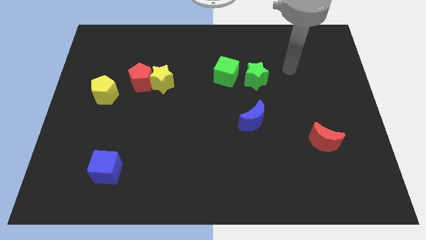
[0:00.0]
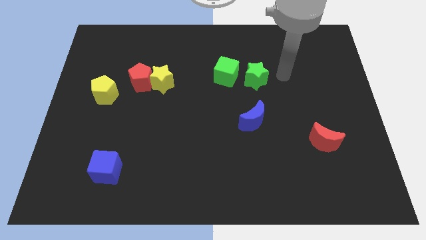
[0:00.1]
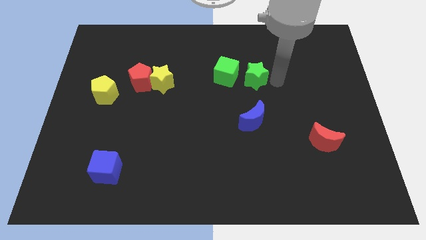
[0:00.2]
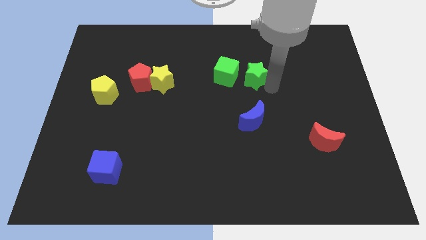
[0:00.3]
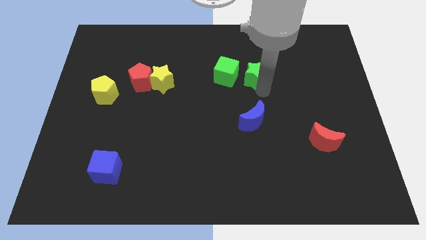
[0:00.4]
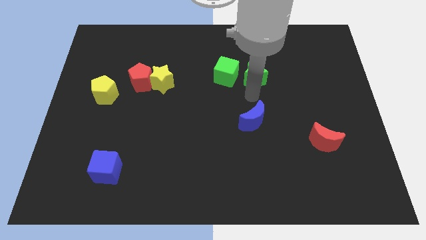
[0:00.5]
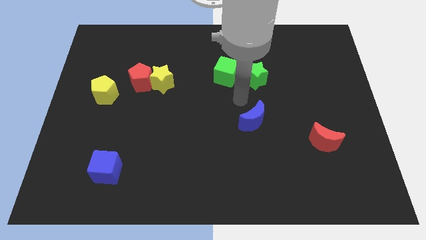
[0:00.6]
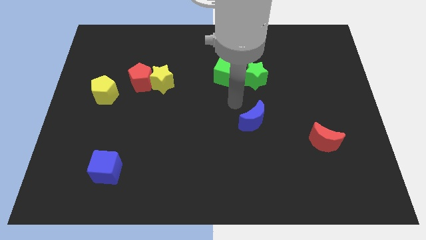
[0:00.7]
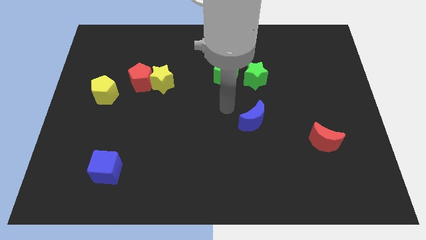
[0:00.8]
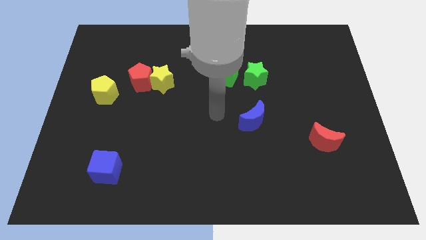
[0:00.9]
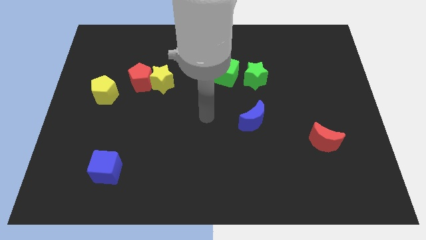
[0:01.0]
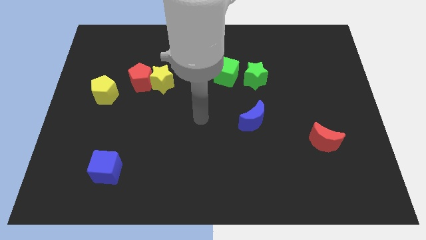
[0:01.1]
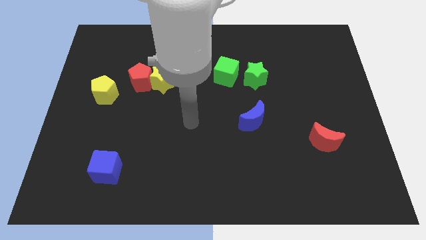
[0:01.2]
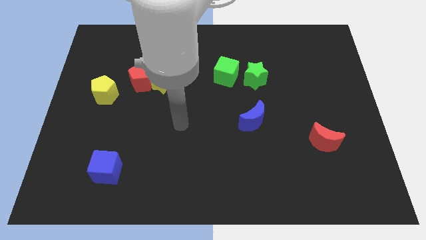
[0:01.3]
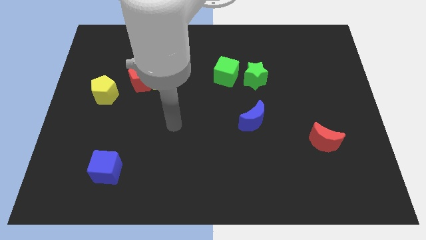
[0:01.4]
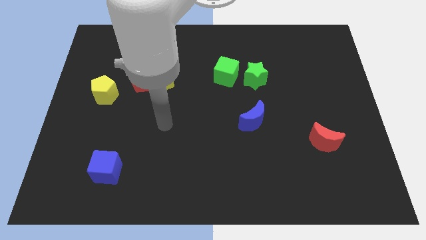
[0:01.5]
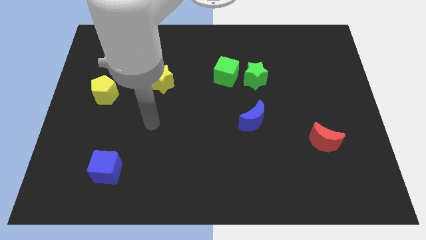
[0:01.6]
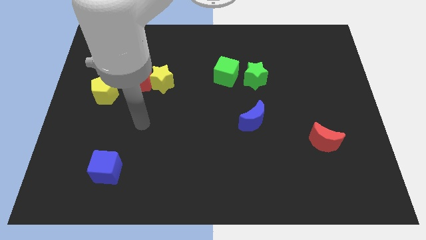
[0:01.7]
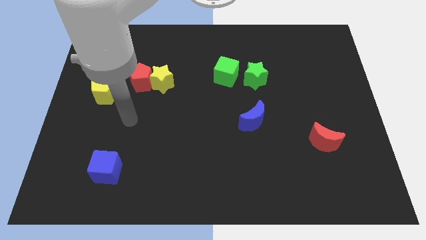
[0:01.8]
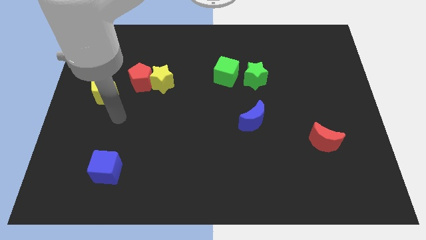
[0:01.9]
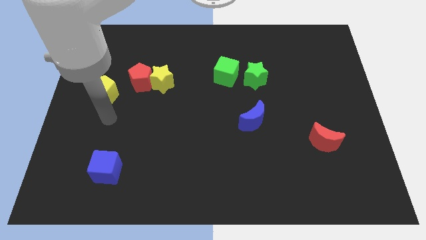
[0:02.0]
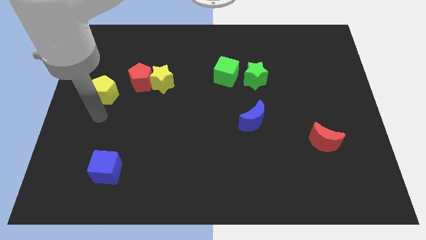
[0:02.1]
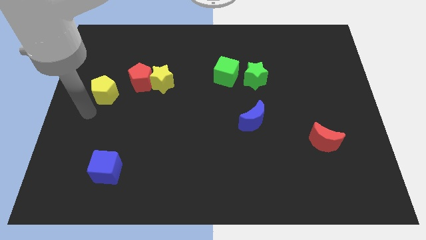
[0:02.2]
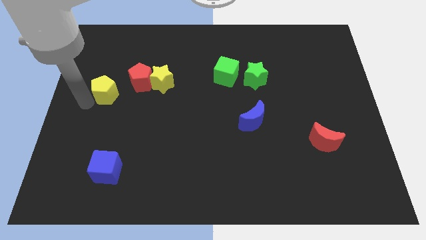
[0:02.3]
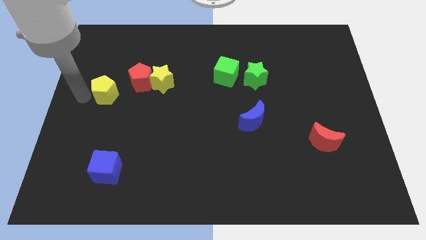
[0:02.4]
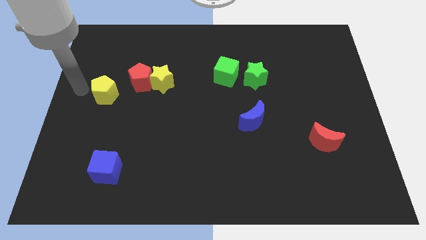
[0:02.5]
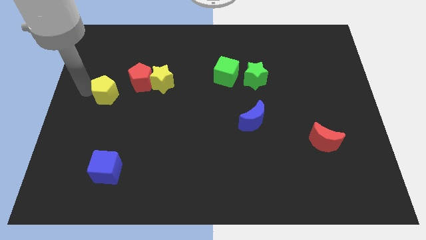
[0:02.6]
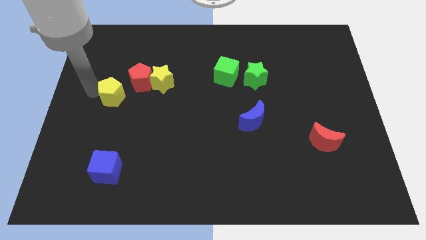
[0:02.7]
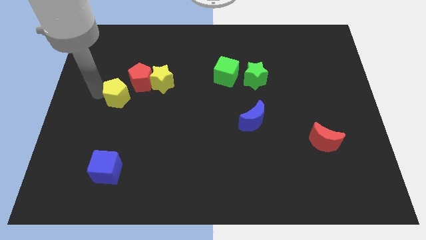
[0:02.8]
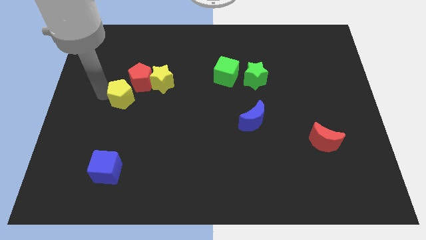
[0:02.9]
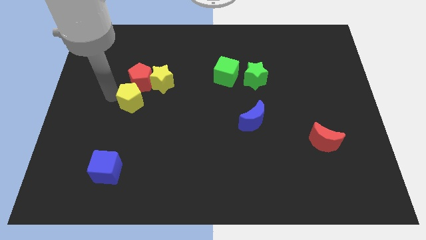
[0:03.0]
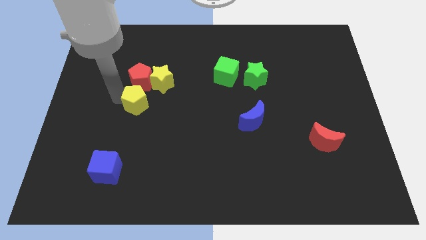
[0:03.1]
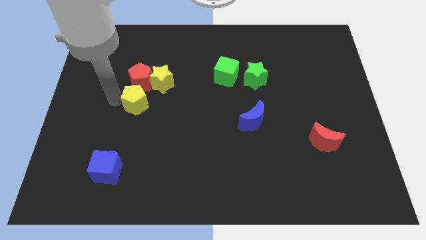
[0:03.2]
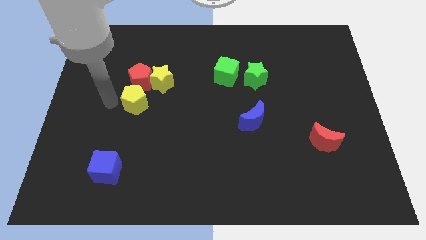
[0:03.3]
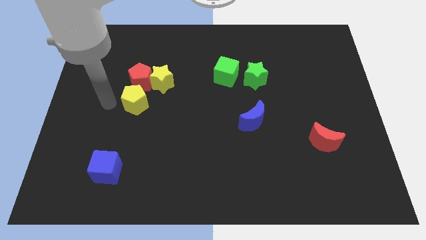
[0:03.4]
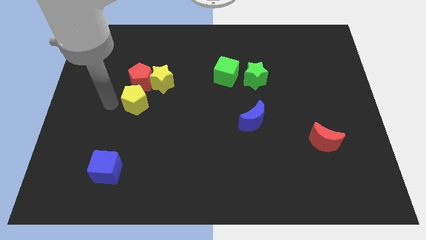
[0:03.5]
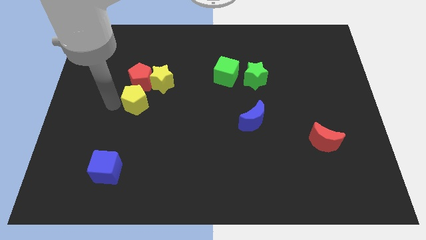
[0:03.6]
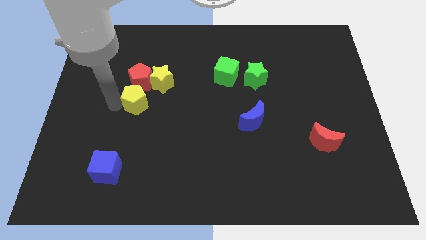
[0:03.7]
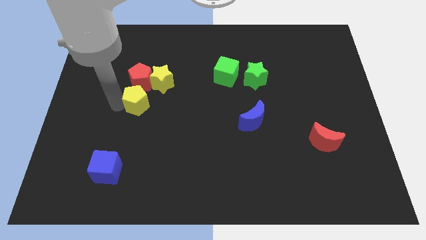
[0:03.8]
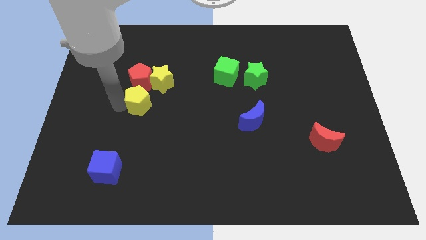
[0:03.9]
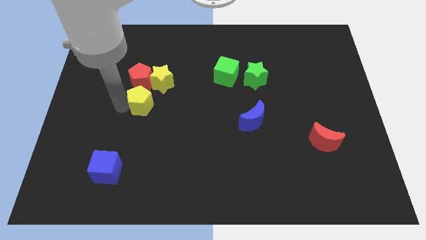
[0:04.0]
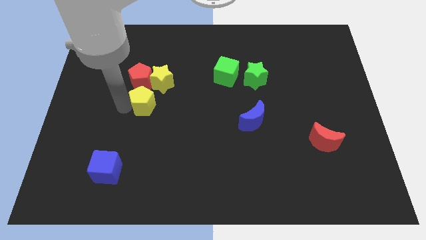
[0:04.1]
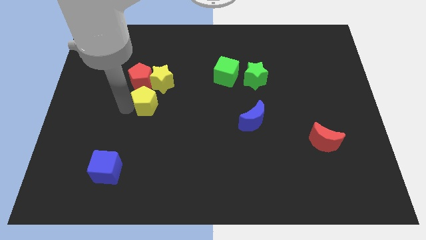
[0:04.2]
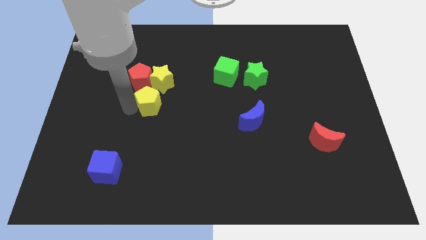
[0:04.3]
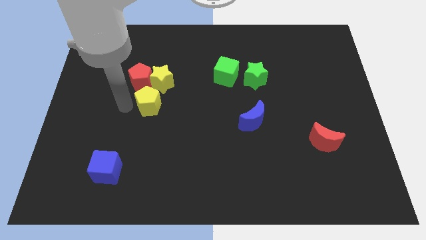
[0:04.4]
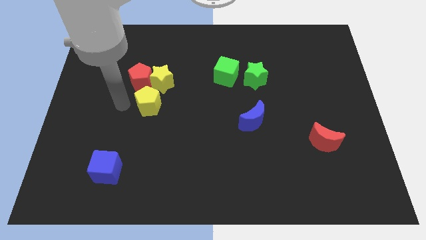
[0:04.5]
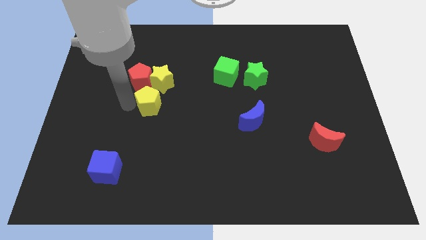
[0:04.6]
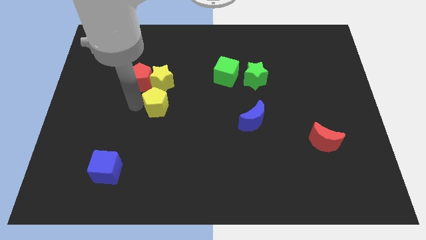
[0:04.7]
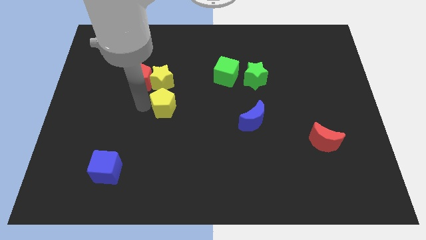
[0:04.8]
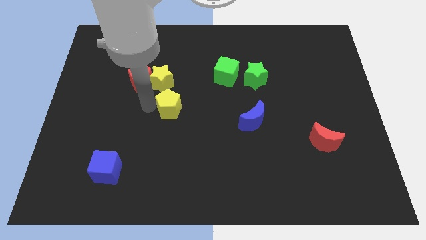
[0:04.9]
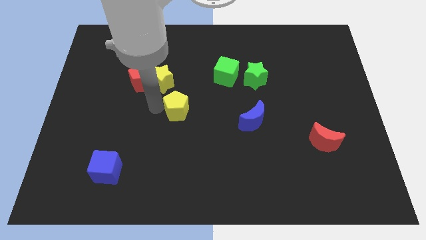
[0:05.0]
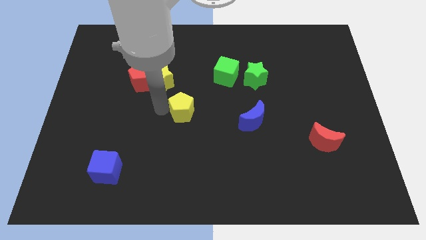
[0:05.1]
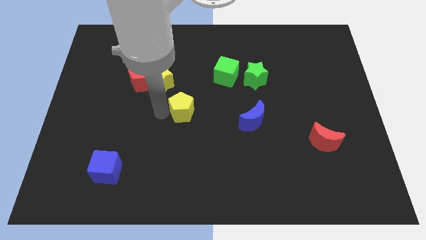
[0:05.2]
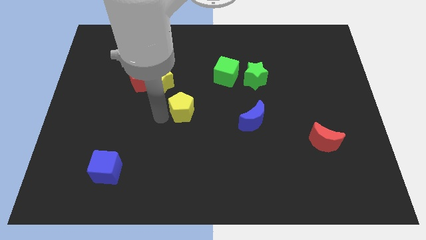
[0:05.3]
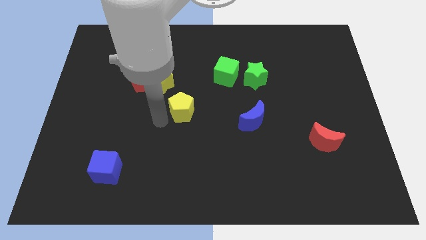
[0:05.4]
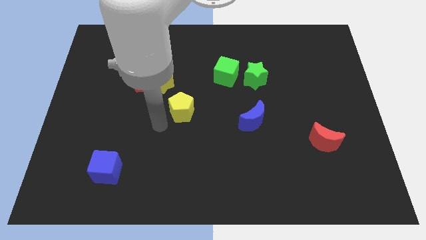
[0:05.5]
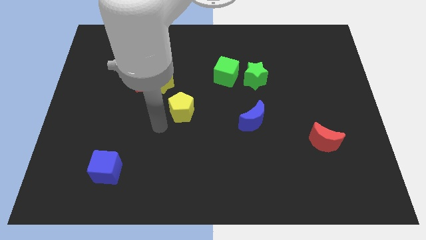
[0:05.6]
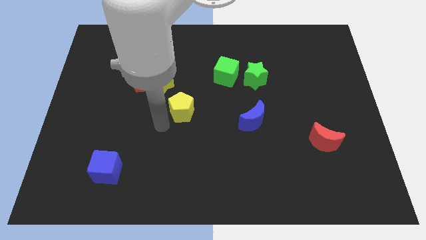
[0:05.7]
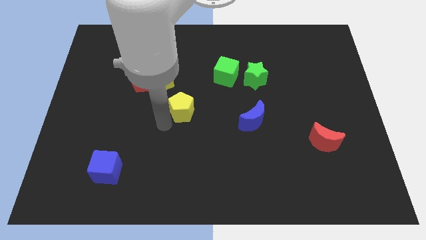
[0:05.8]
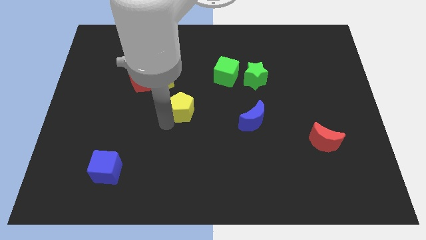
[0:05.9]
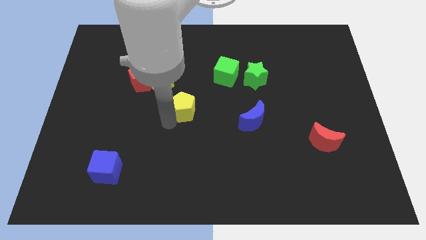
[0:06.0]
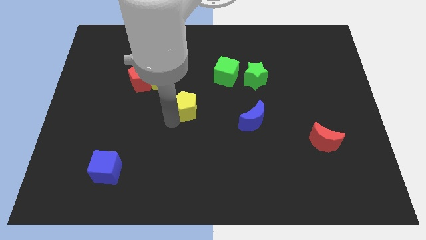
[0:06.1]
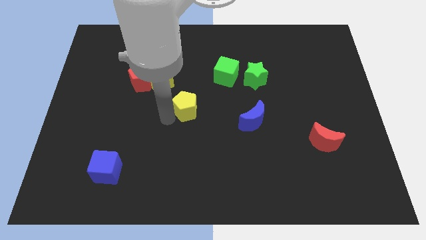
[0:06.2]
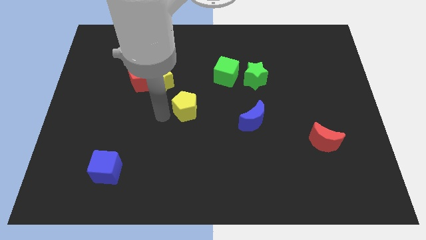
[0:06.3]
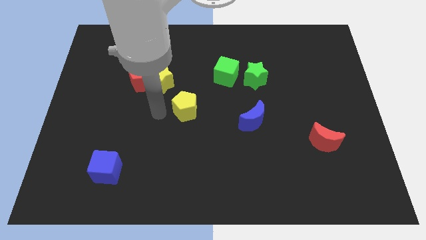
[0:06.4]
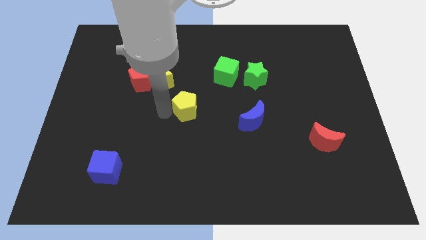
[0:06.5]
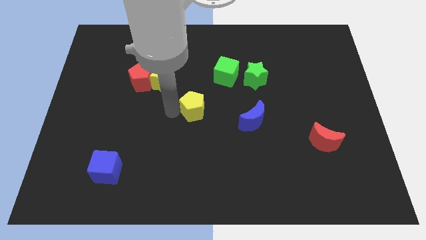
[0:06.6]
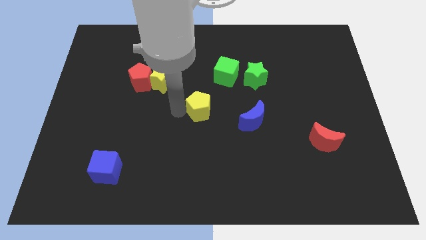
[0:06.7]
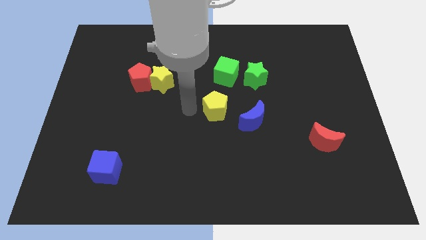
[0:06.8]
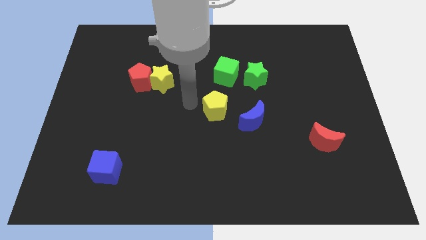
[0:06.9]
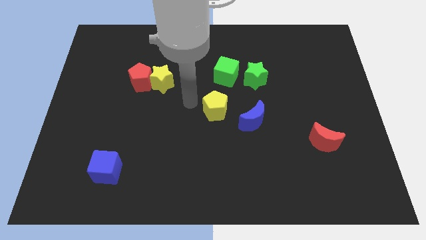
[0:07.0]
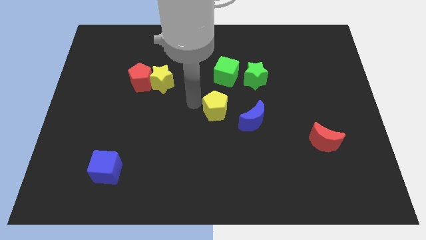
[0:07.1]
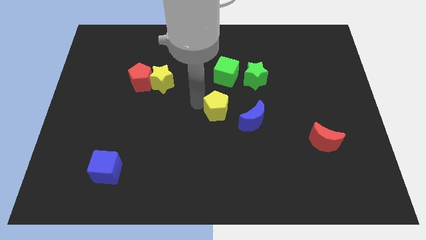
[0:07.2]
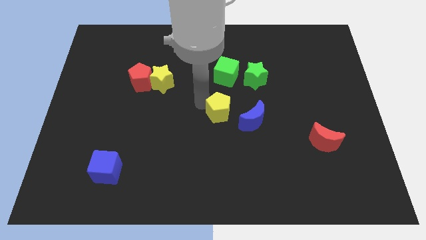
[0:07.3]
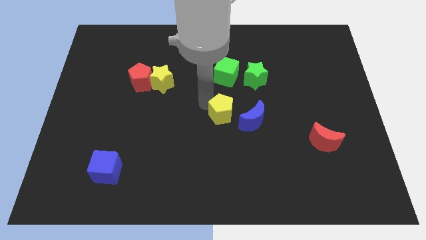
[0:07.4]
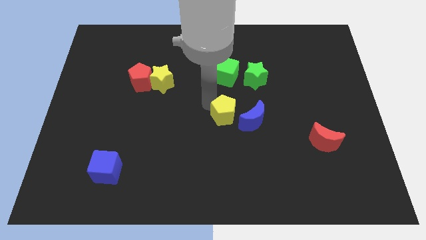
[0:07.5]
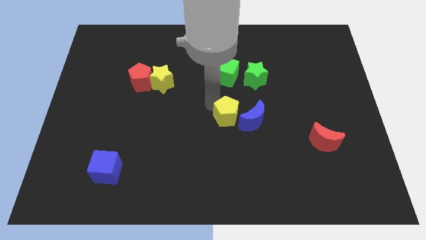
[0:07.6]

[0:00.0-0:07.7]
push the yellow pentagon towards the blue moon
